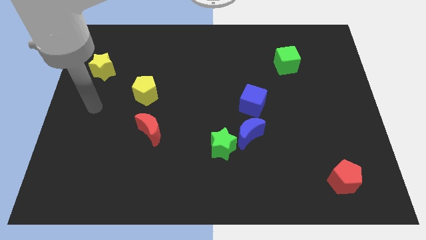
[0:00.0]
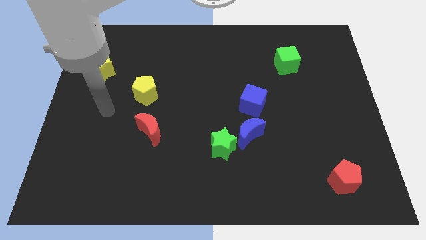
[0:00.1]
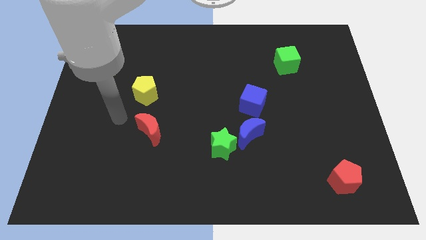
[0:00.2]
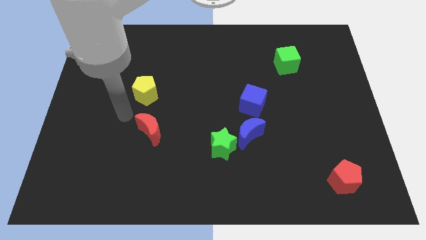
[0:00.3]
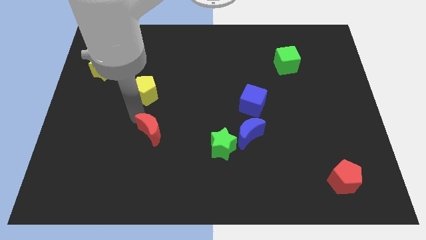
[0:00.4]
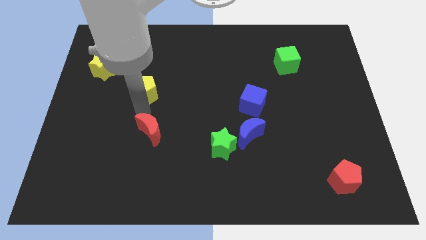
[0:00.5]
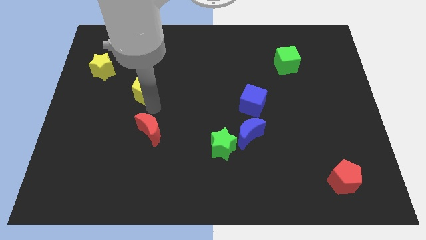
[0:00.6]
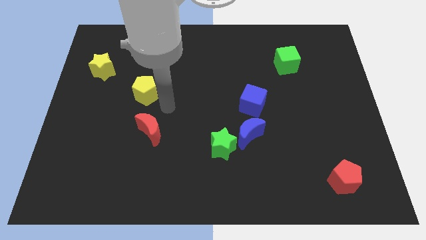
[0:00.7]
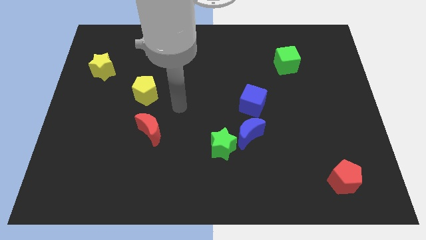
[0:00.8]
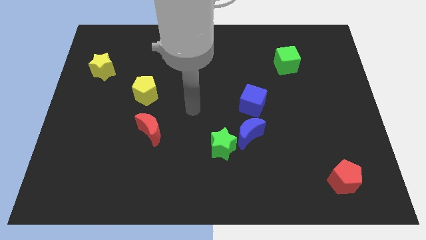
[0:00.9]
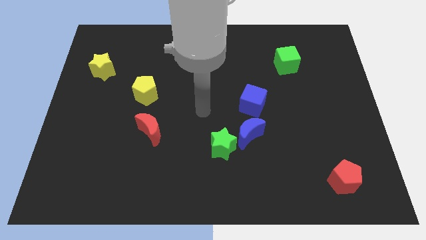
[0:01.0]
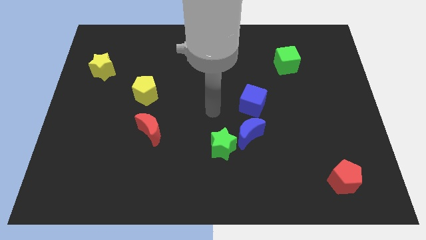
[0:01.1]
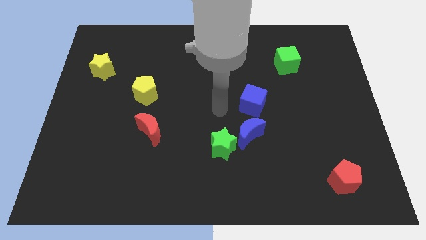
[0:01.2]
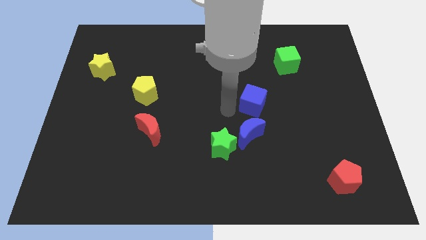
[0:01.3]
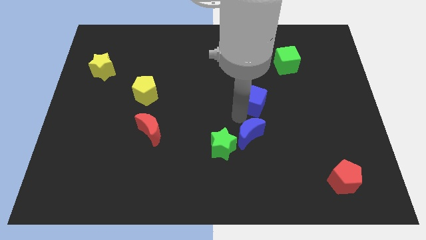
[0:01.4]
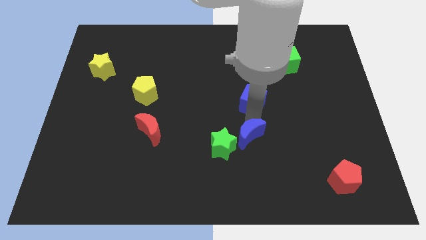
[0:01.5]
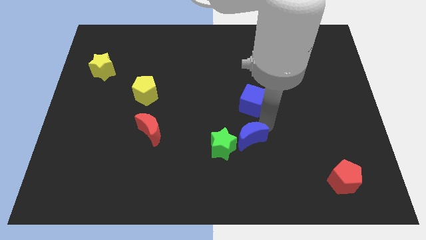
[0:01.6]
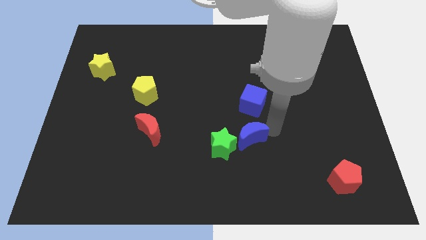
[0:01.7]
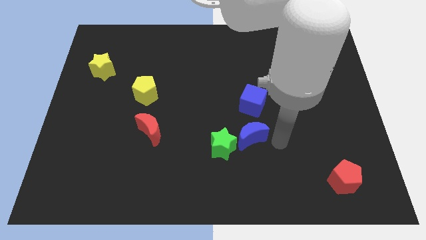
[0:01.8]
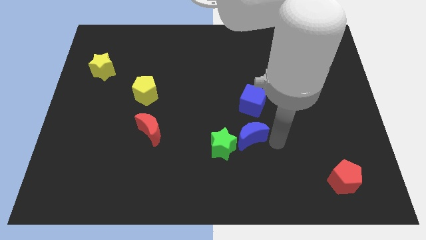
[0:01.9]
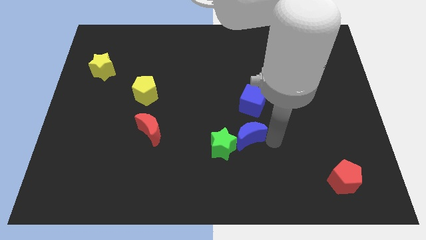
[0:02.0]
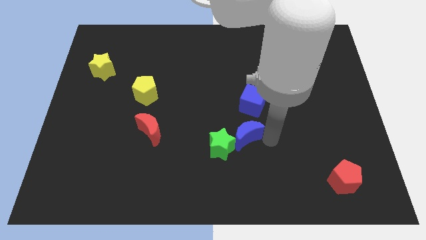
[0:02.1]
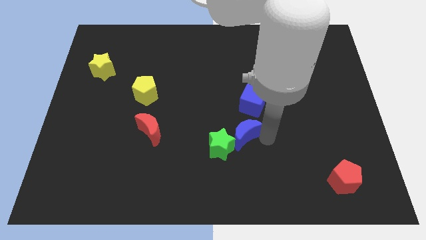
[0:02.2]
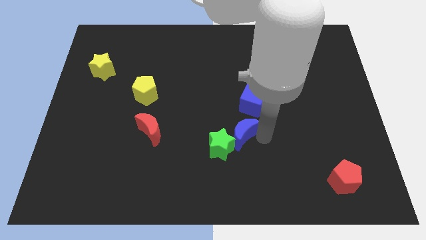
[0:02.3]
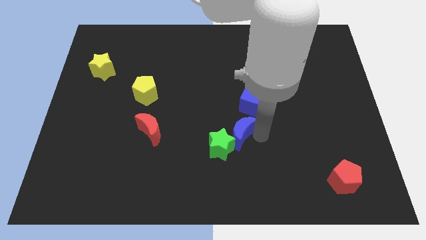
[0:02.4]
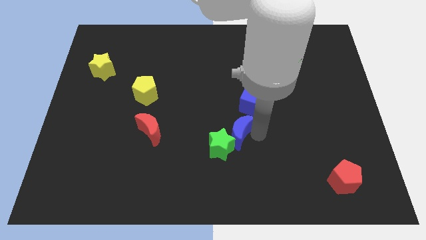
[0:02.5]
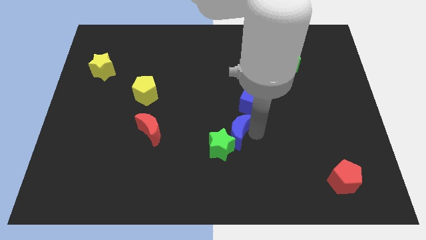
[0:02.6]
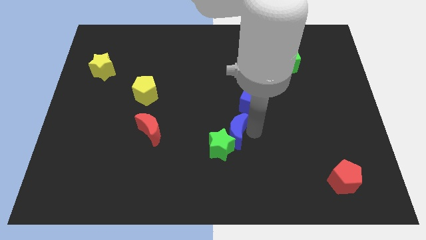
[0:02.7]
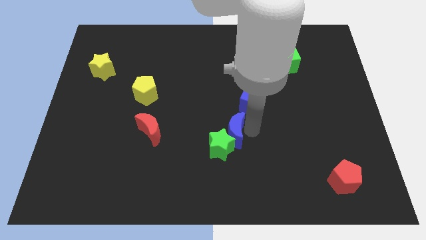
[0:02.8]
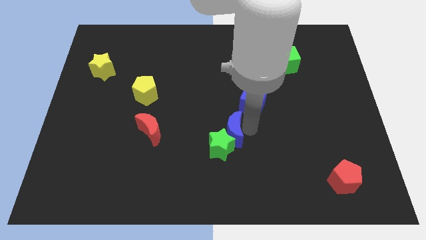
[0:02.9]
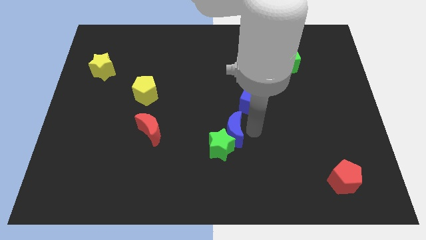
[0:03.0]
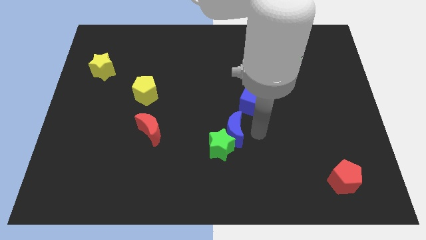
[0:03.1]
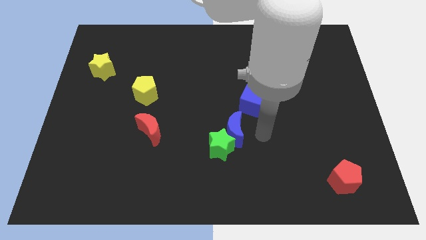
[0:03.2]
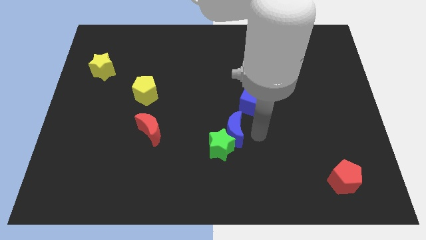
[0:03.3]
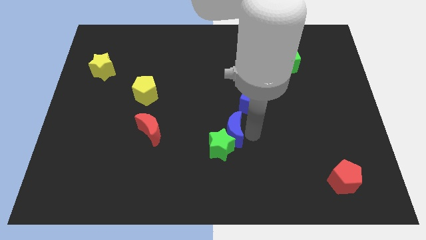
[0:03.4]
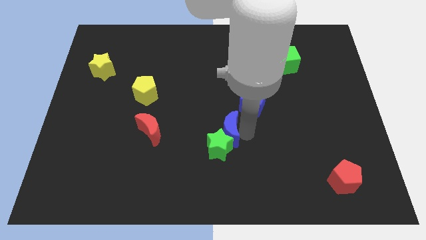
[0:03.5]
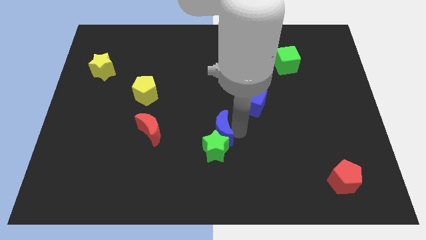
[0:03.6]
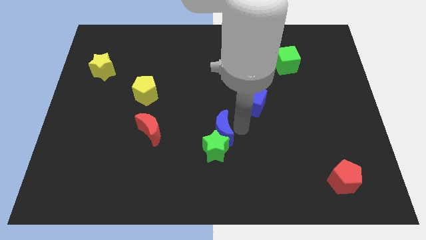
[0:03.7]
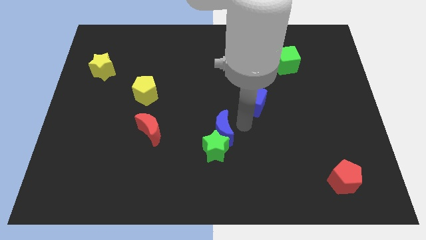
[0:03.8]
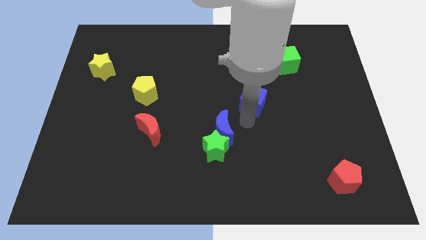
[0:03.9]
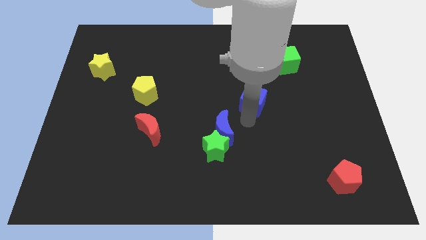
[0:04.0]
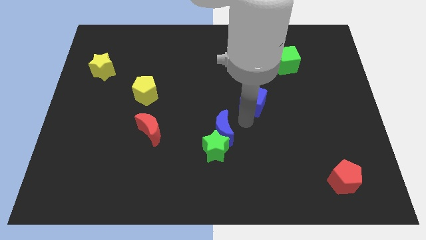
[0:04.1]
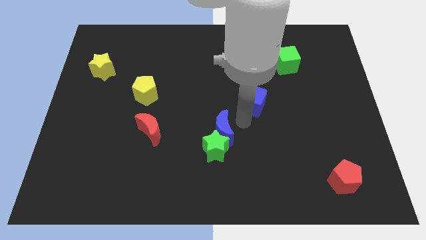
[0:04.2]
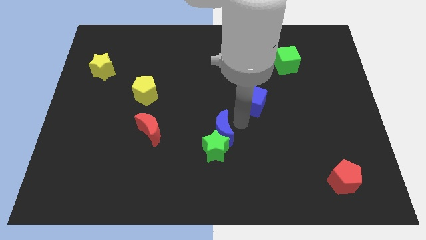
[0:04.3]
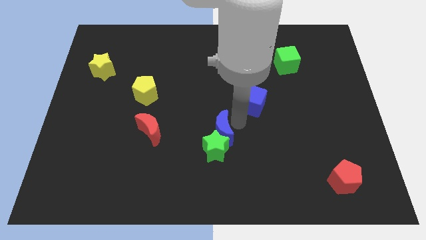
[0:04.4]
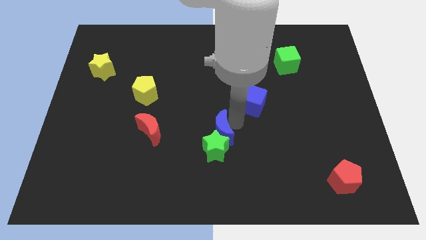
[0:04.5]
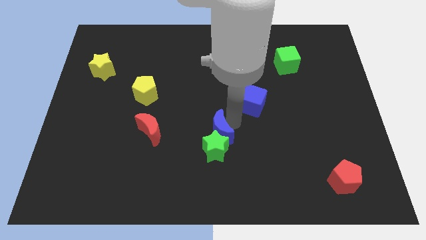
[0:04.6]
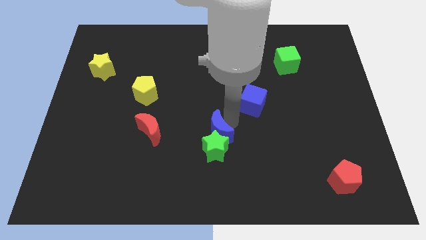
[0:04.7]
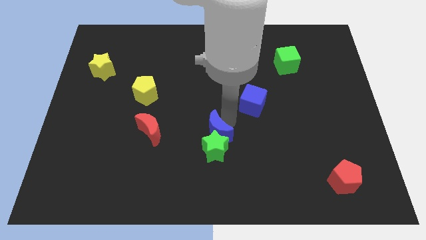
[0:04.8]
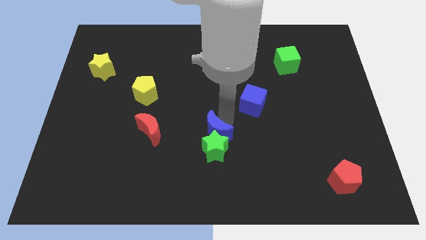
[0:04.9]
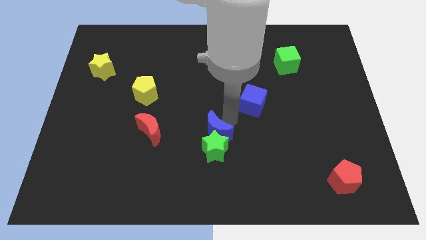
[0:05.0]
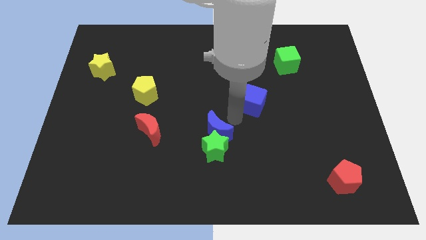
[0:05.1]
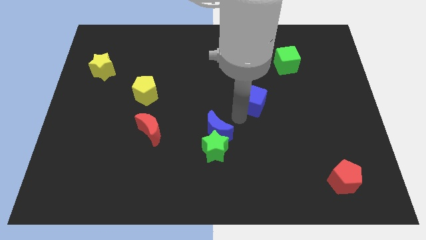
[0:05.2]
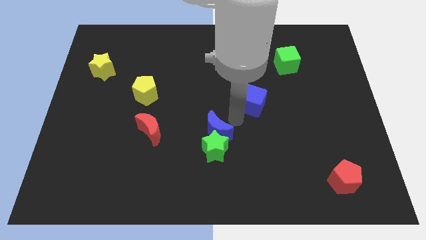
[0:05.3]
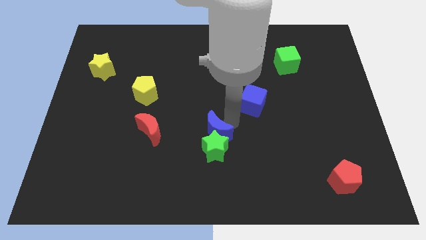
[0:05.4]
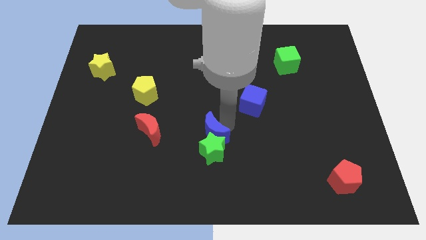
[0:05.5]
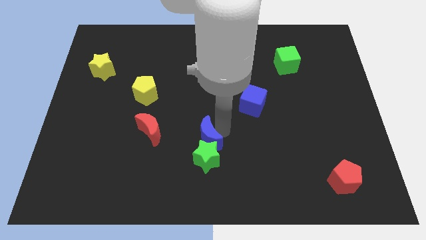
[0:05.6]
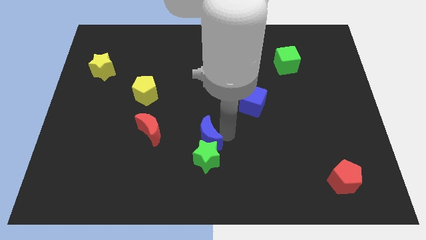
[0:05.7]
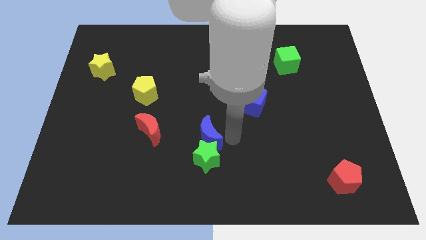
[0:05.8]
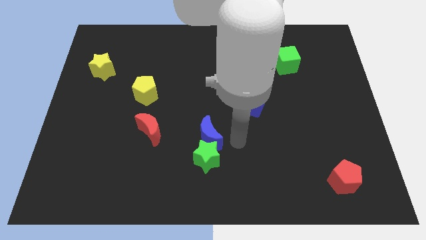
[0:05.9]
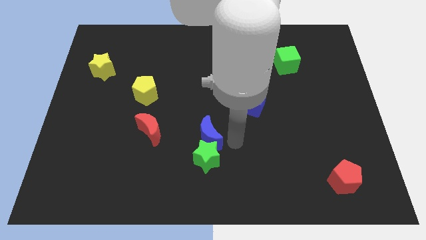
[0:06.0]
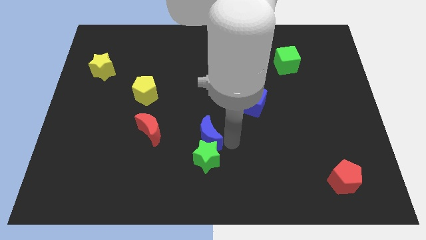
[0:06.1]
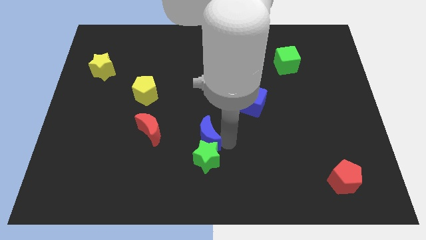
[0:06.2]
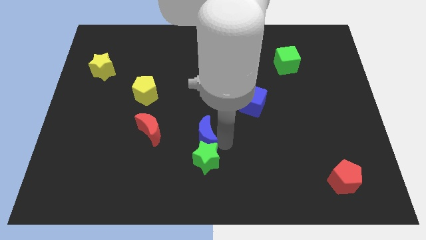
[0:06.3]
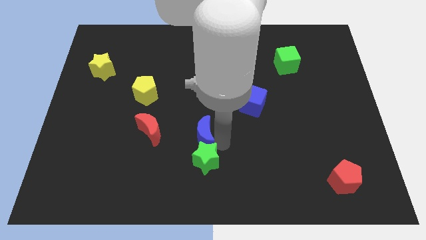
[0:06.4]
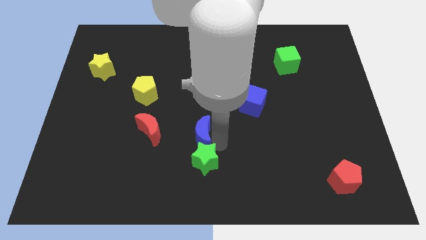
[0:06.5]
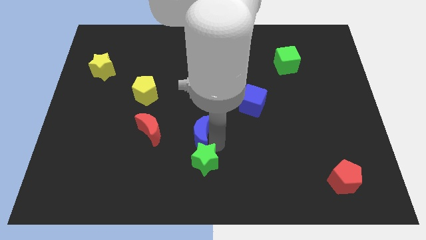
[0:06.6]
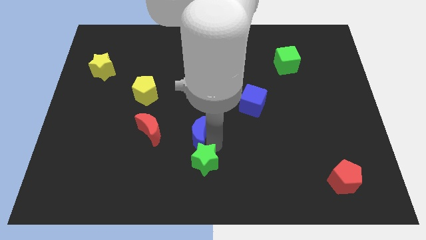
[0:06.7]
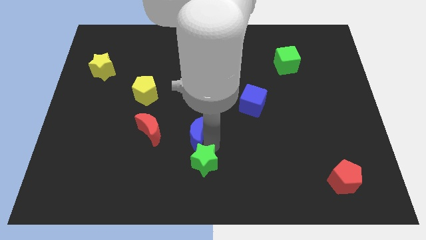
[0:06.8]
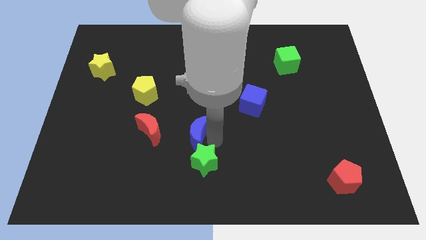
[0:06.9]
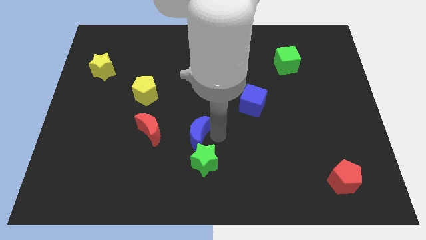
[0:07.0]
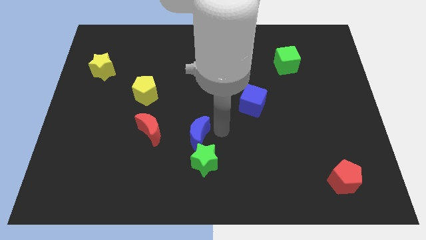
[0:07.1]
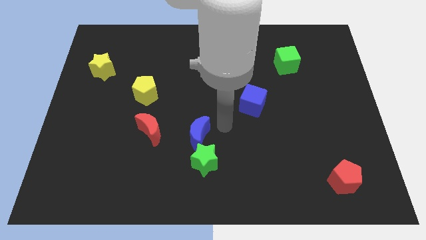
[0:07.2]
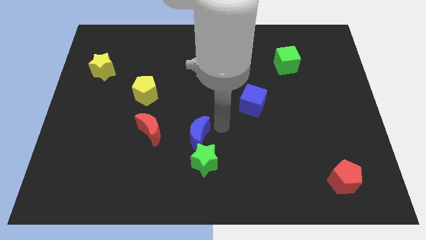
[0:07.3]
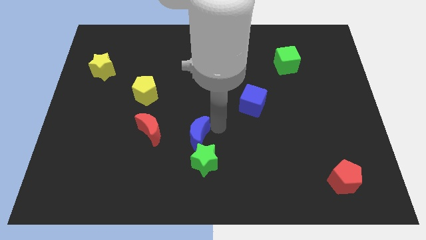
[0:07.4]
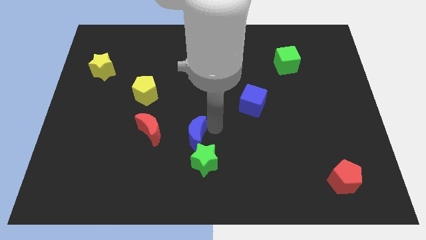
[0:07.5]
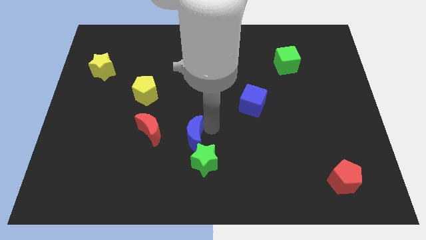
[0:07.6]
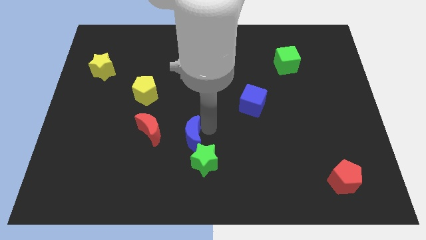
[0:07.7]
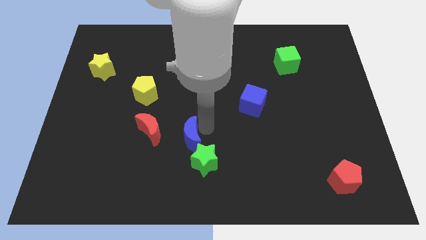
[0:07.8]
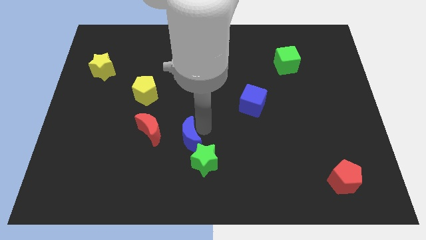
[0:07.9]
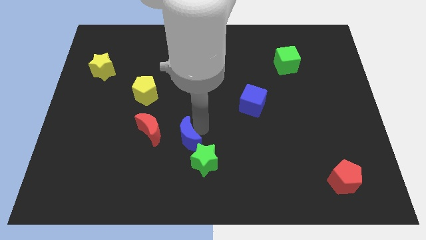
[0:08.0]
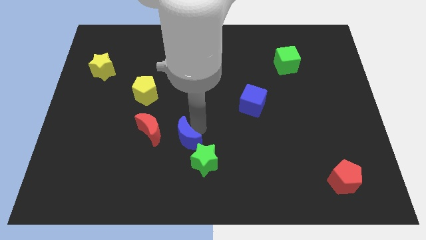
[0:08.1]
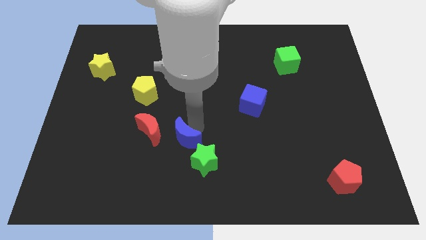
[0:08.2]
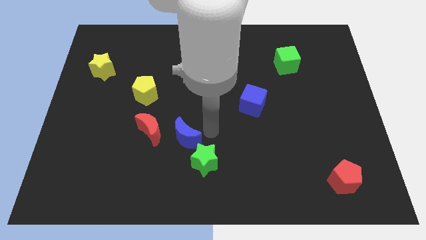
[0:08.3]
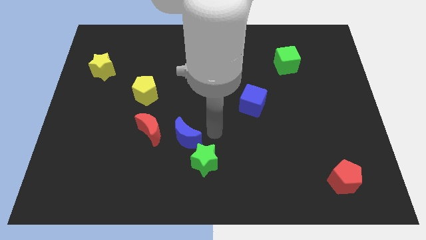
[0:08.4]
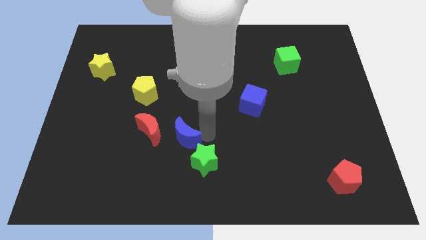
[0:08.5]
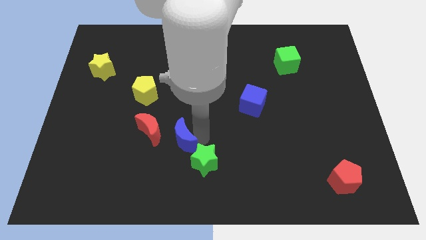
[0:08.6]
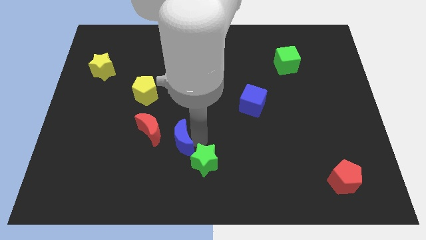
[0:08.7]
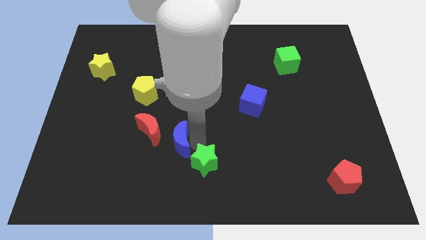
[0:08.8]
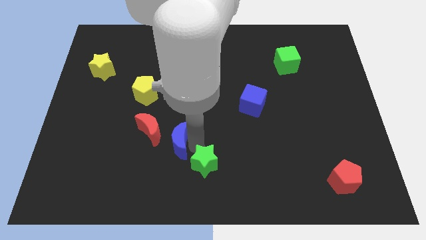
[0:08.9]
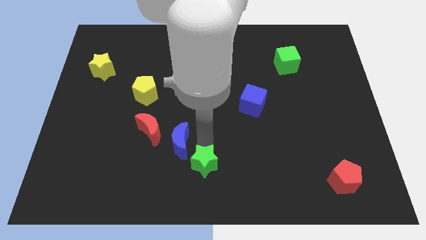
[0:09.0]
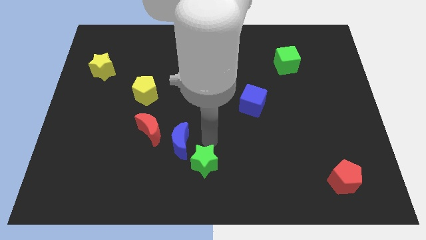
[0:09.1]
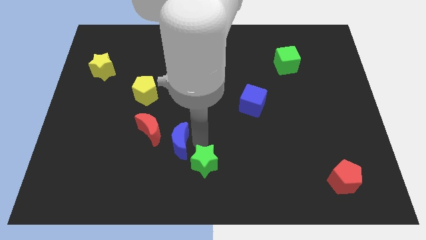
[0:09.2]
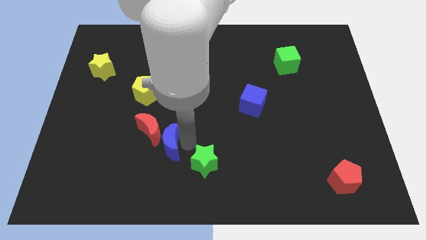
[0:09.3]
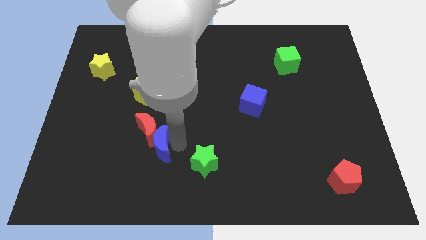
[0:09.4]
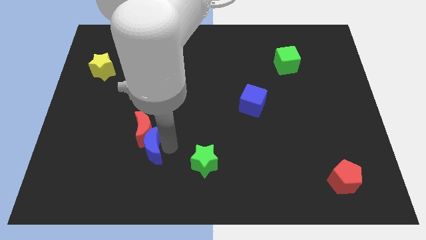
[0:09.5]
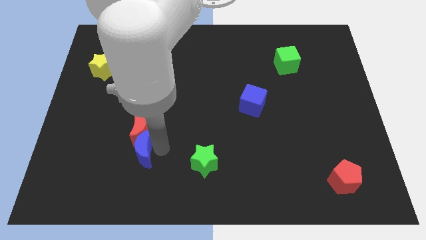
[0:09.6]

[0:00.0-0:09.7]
move the blue moon diagonally down and to the left of the red moon
